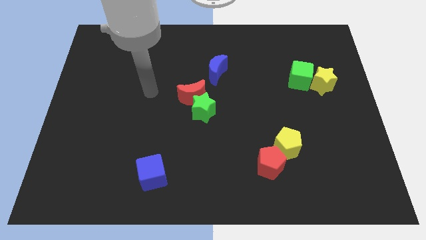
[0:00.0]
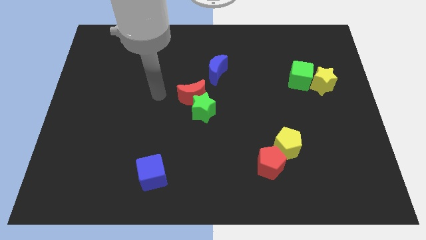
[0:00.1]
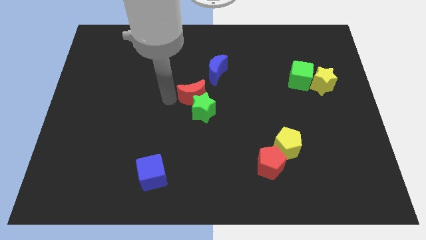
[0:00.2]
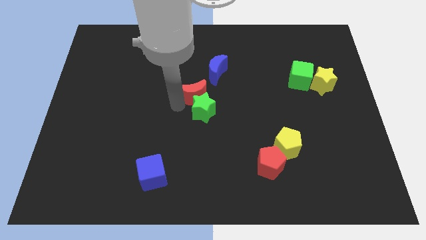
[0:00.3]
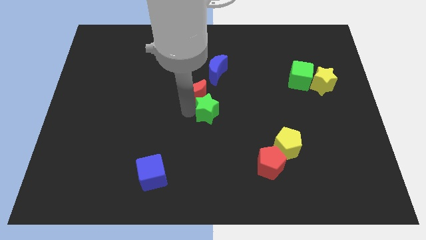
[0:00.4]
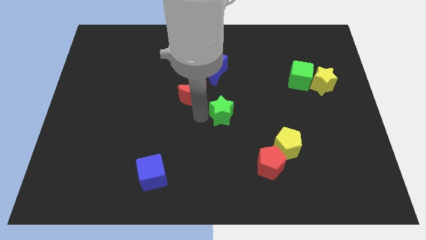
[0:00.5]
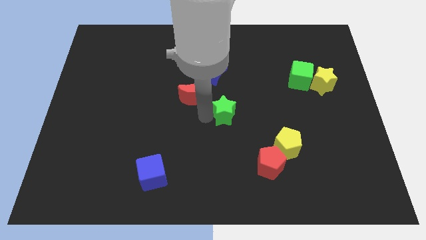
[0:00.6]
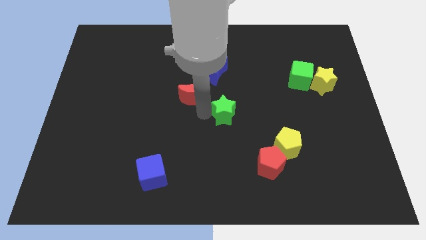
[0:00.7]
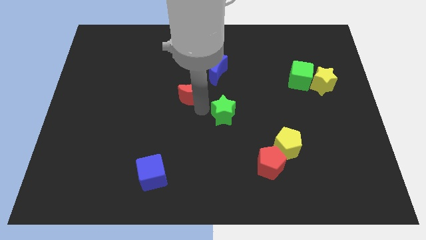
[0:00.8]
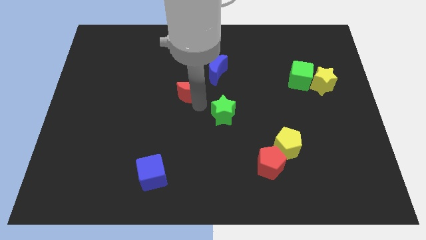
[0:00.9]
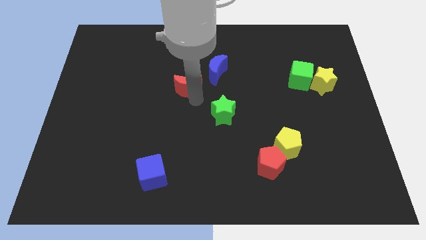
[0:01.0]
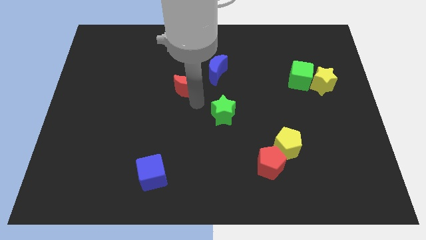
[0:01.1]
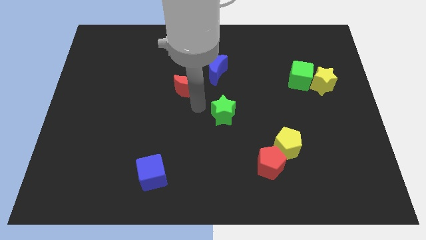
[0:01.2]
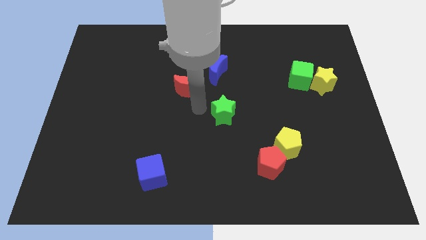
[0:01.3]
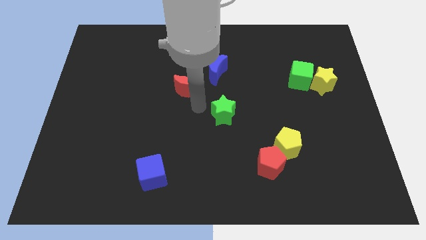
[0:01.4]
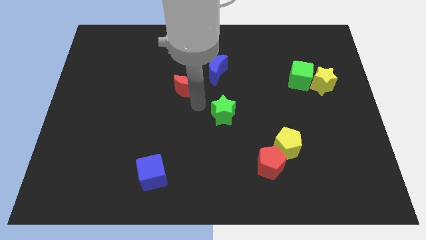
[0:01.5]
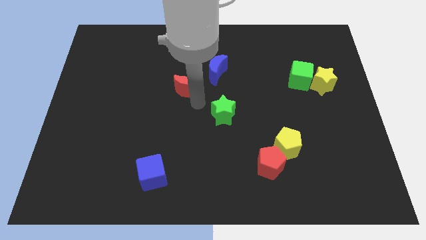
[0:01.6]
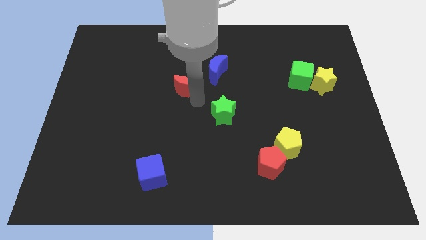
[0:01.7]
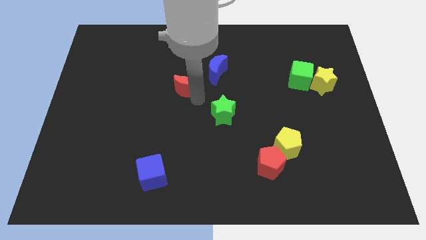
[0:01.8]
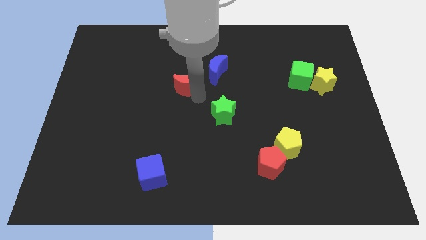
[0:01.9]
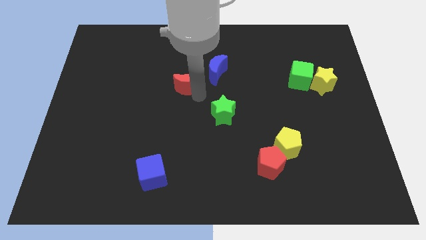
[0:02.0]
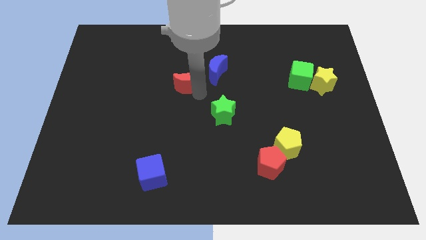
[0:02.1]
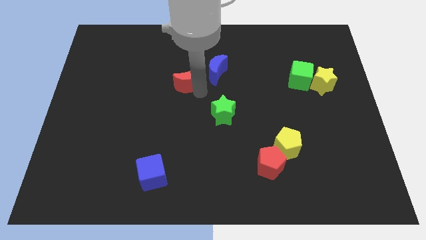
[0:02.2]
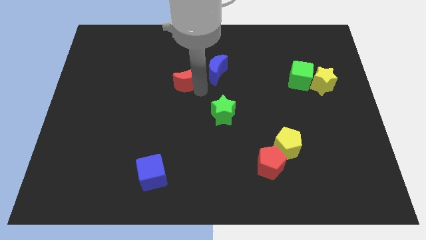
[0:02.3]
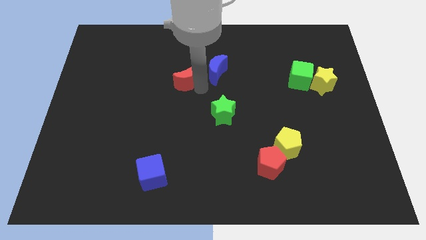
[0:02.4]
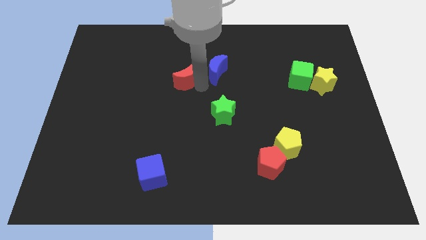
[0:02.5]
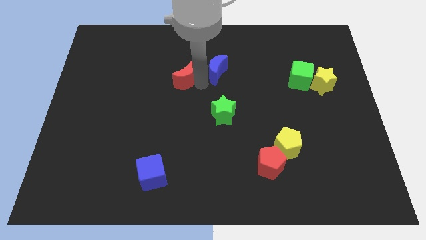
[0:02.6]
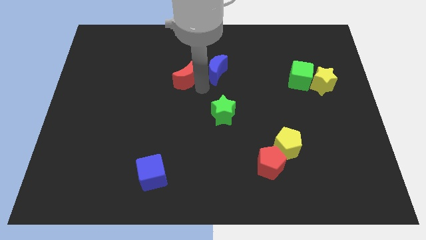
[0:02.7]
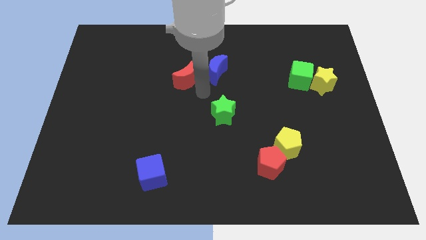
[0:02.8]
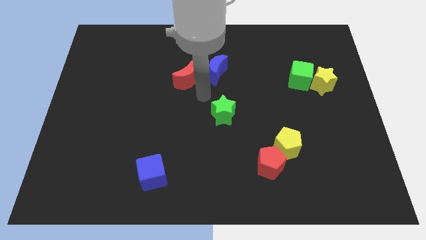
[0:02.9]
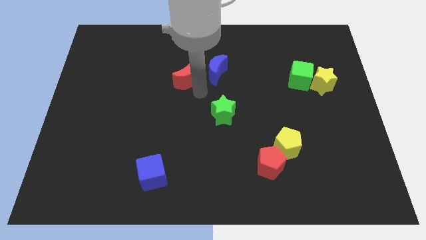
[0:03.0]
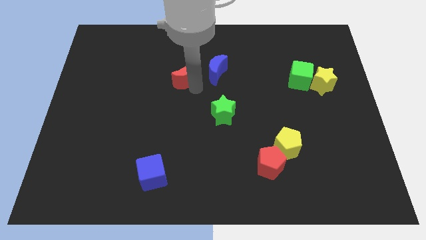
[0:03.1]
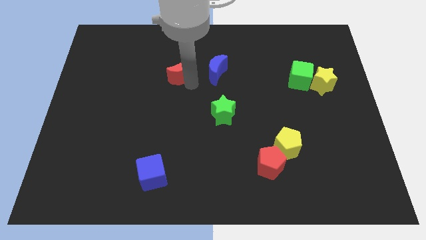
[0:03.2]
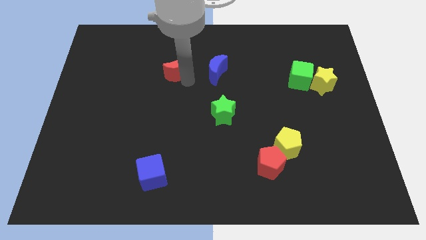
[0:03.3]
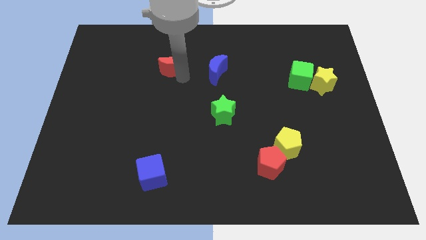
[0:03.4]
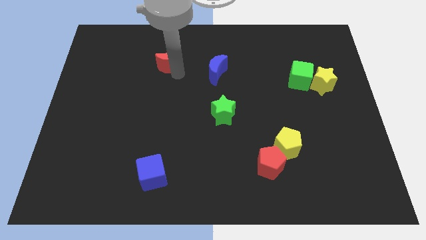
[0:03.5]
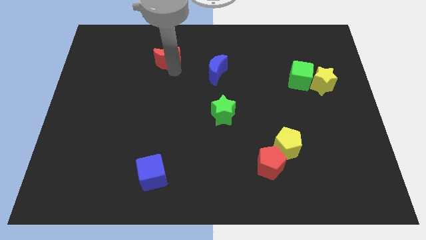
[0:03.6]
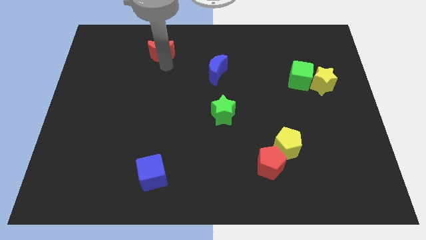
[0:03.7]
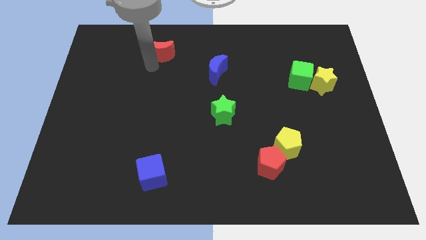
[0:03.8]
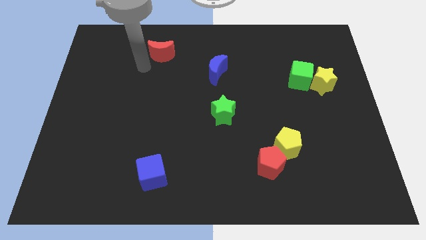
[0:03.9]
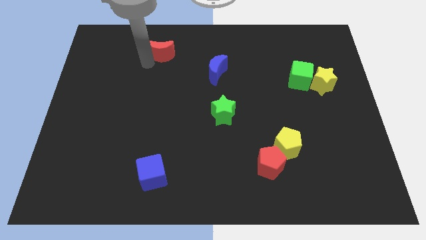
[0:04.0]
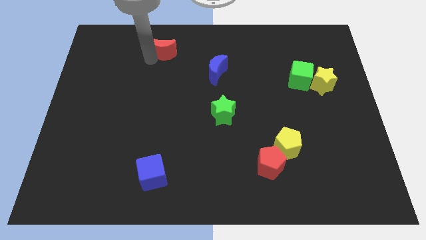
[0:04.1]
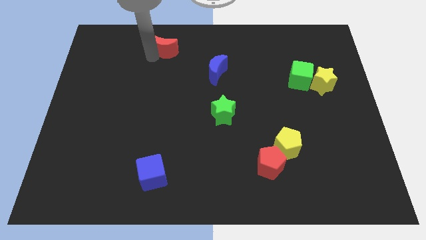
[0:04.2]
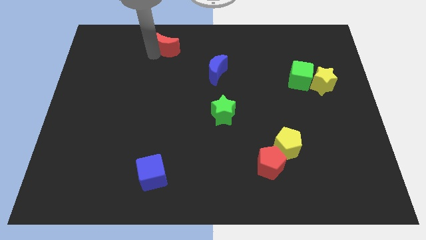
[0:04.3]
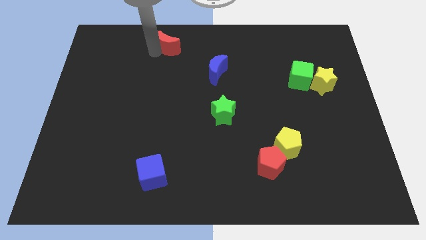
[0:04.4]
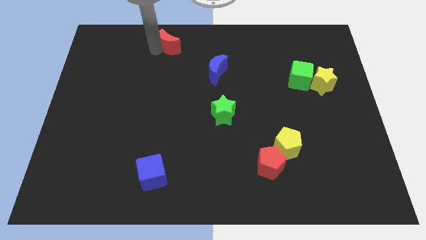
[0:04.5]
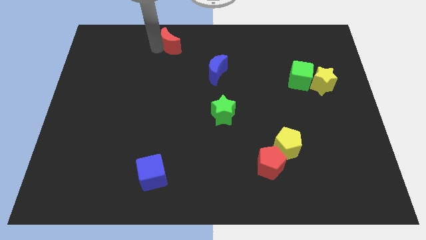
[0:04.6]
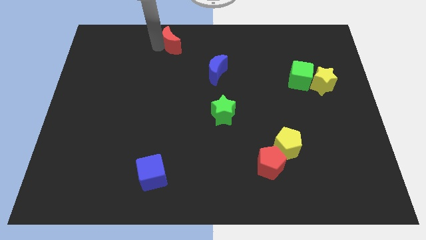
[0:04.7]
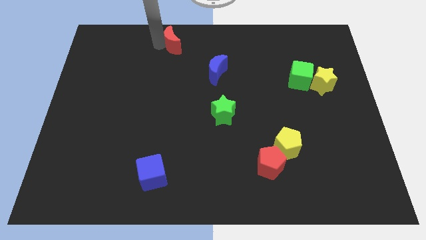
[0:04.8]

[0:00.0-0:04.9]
push the red moon to the top side

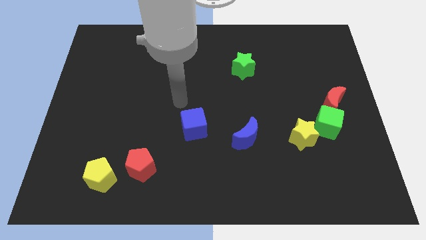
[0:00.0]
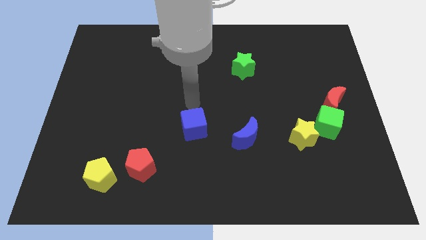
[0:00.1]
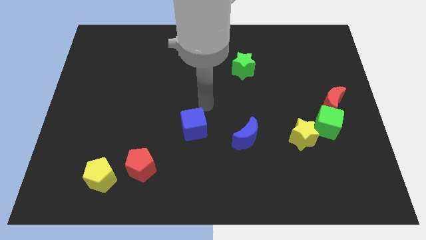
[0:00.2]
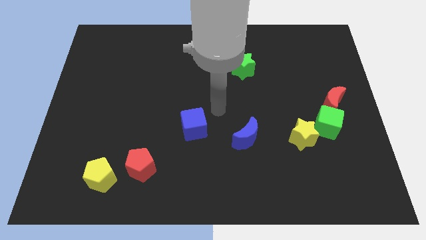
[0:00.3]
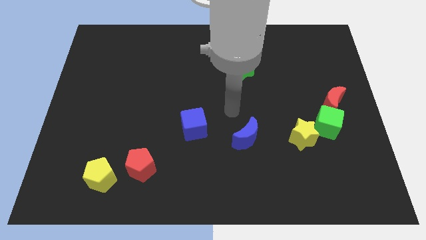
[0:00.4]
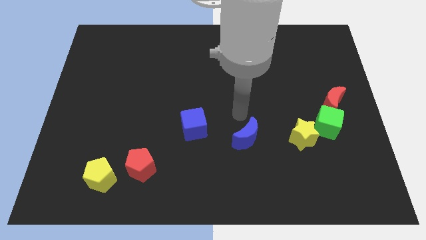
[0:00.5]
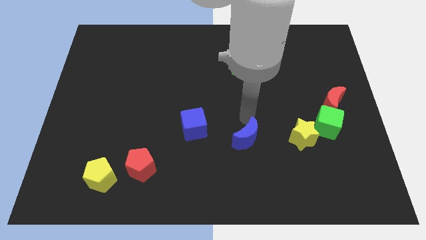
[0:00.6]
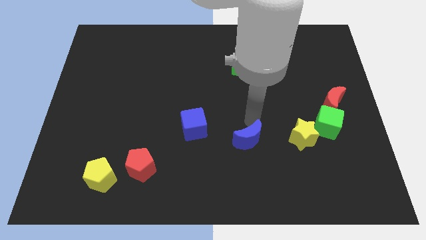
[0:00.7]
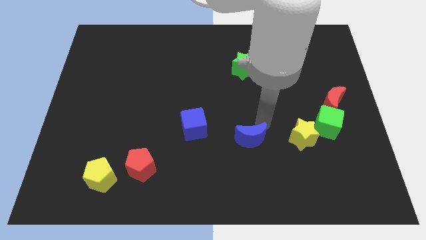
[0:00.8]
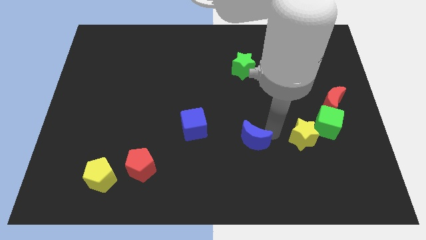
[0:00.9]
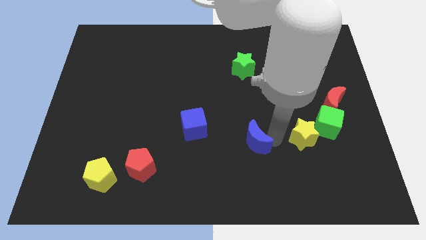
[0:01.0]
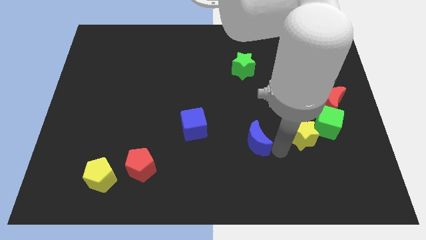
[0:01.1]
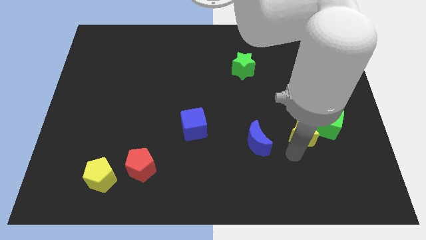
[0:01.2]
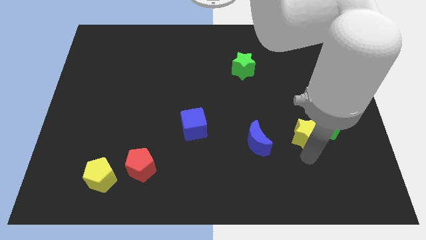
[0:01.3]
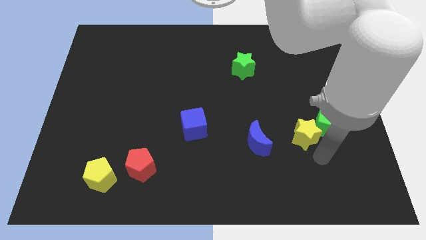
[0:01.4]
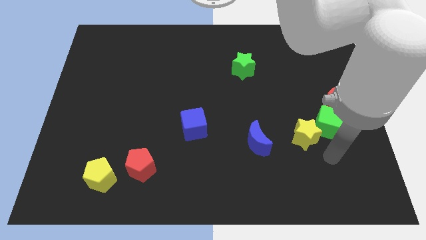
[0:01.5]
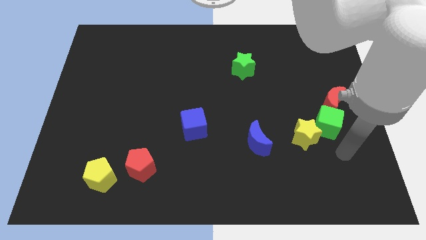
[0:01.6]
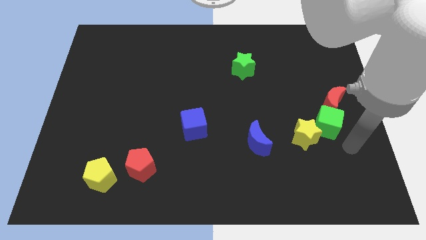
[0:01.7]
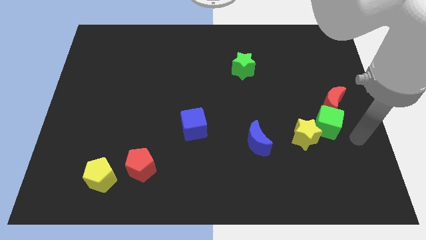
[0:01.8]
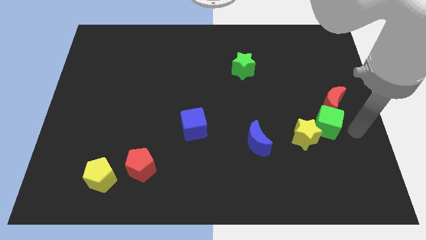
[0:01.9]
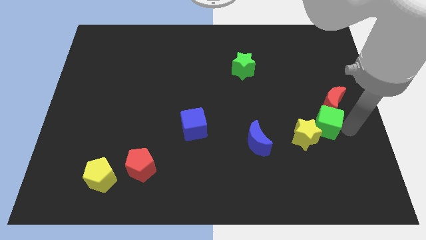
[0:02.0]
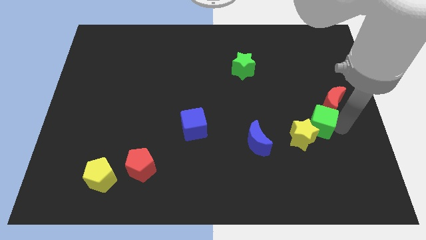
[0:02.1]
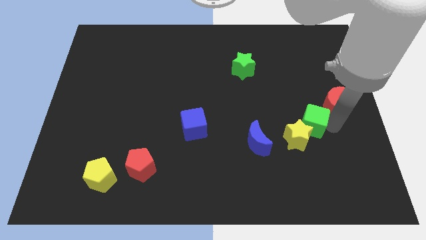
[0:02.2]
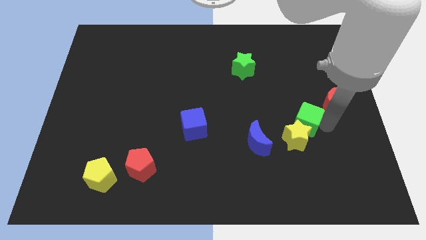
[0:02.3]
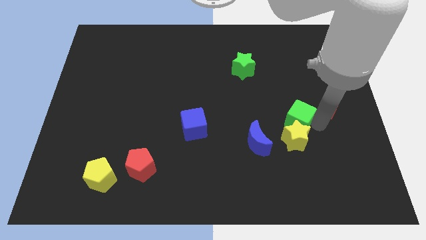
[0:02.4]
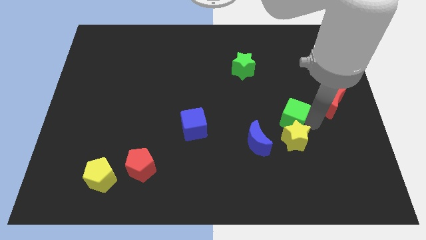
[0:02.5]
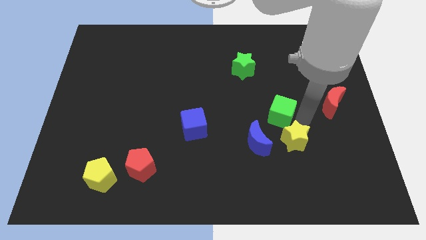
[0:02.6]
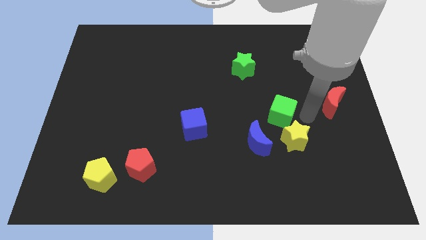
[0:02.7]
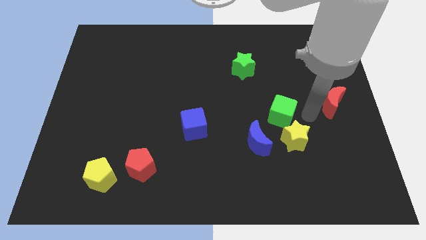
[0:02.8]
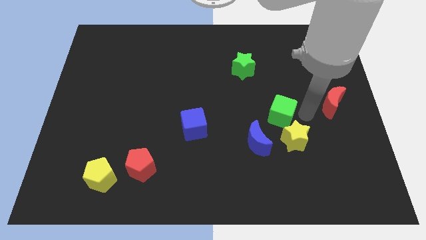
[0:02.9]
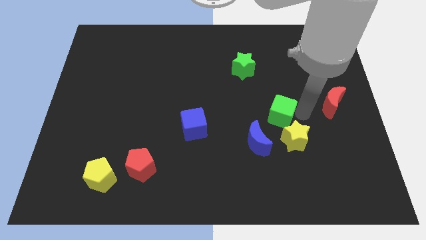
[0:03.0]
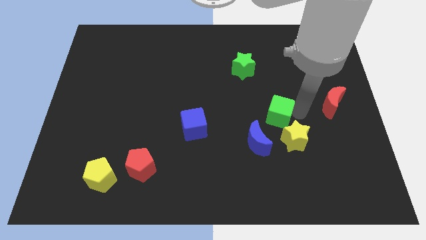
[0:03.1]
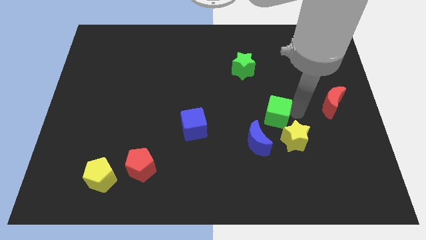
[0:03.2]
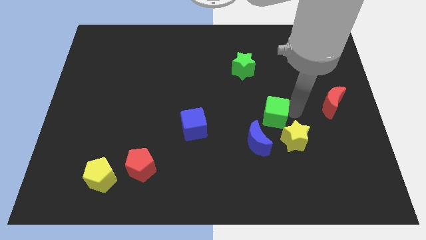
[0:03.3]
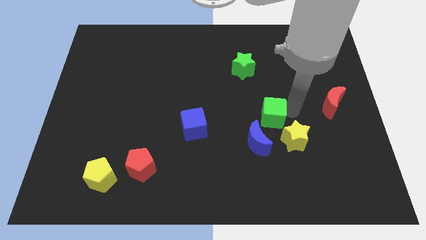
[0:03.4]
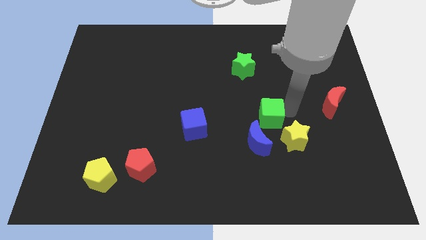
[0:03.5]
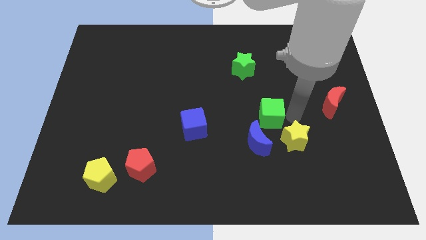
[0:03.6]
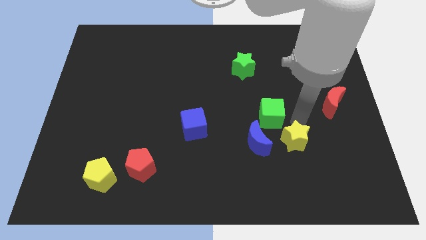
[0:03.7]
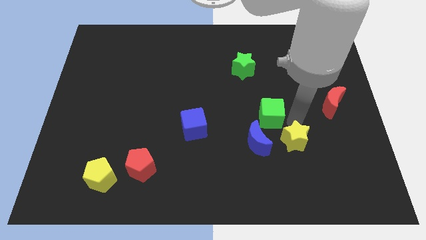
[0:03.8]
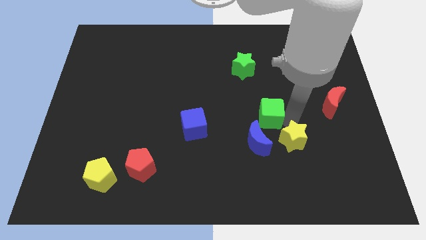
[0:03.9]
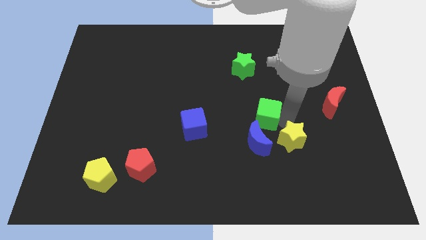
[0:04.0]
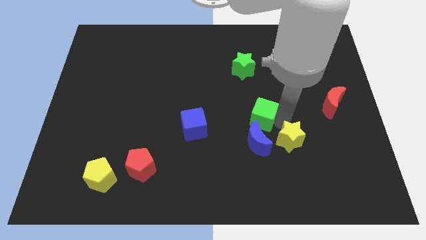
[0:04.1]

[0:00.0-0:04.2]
move the green cube to the middle
